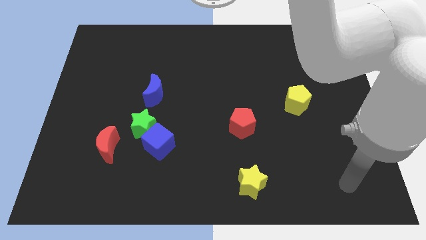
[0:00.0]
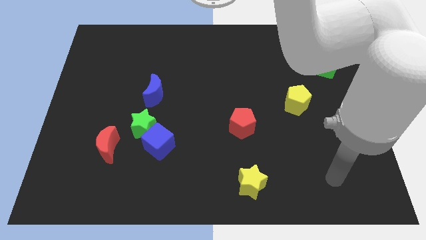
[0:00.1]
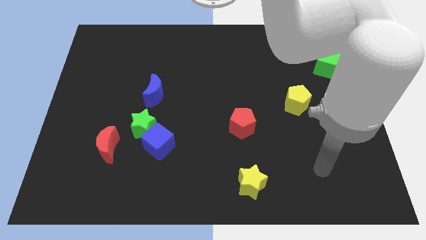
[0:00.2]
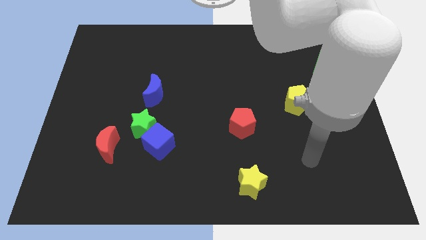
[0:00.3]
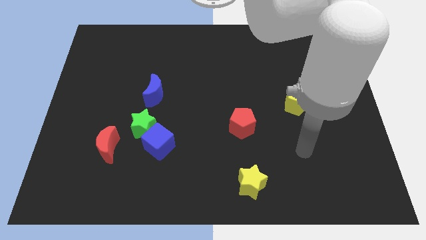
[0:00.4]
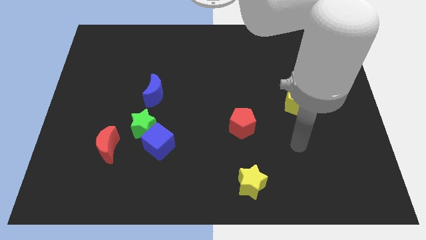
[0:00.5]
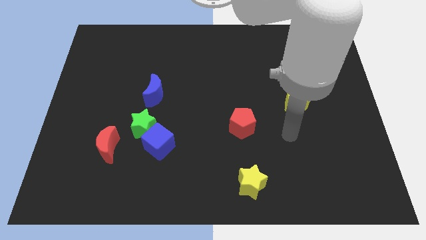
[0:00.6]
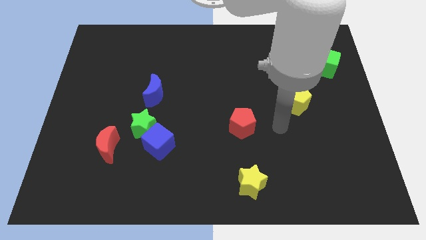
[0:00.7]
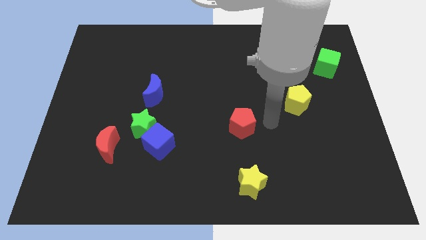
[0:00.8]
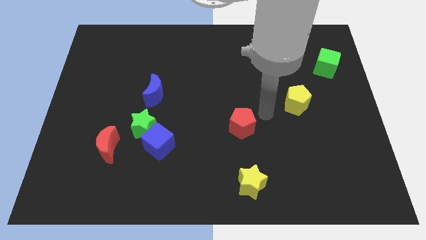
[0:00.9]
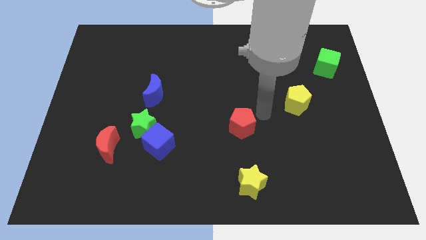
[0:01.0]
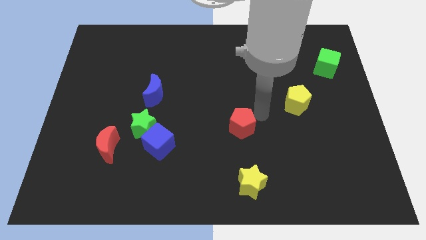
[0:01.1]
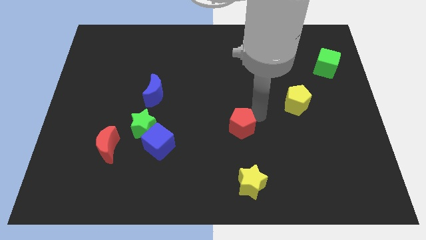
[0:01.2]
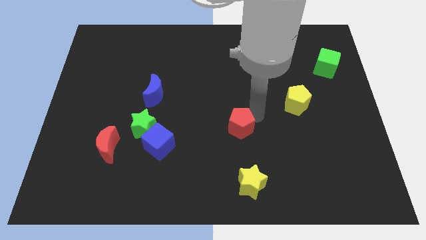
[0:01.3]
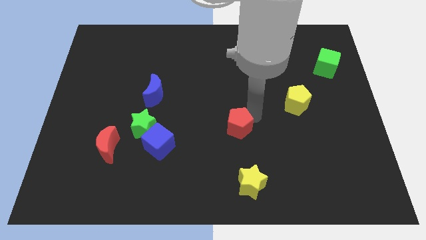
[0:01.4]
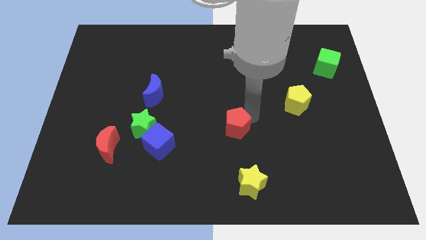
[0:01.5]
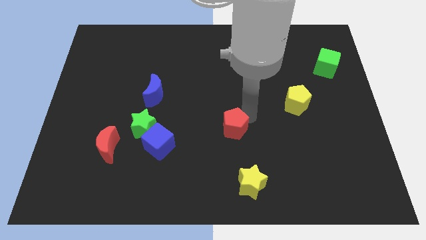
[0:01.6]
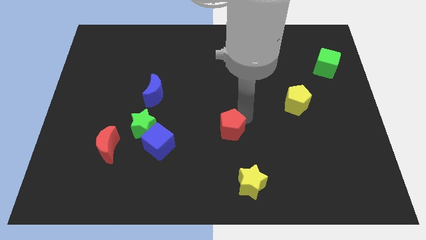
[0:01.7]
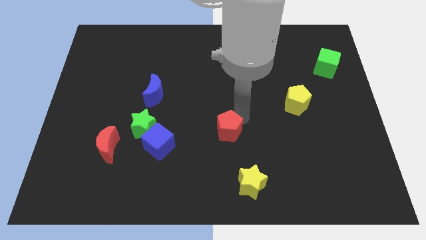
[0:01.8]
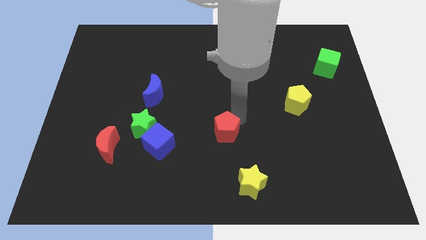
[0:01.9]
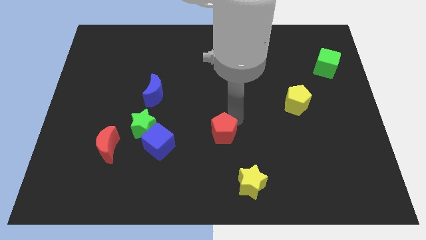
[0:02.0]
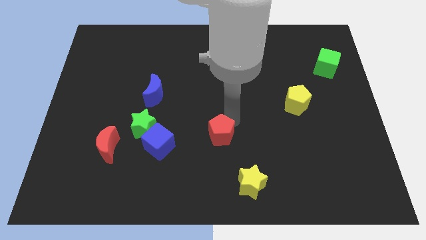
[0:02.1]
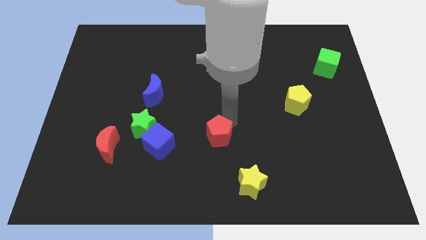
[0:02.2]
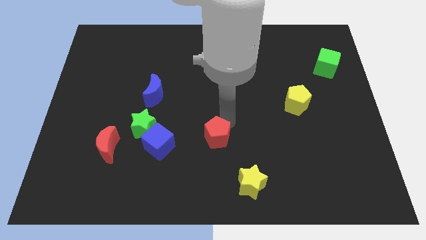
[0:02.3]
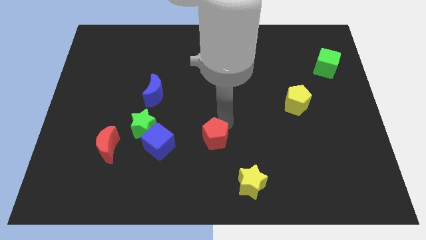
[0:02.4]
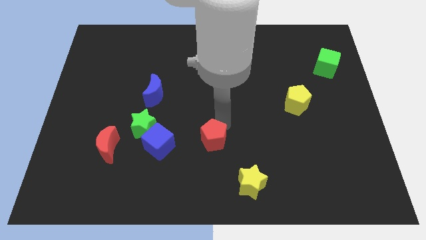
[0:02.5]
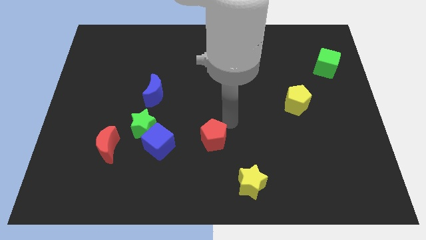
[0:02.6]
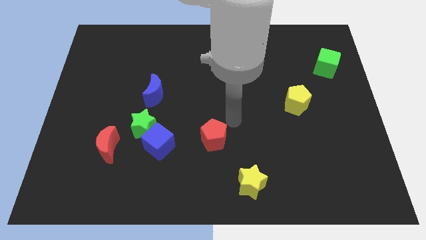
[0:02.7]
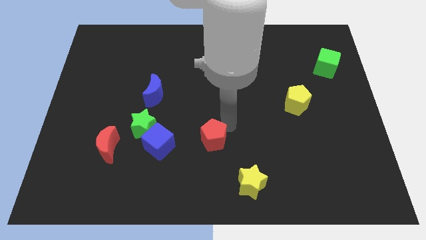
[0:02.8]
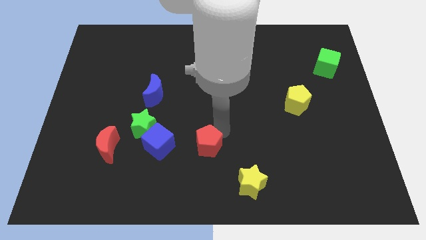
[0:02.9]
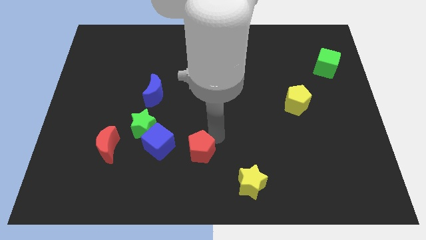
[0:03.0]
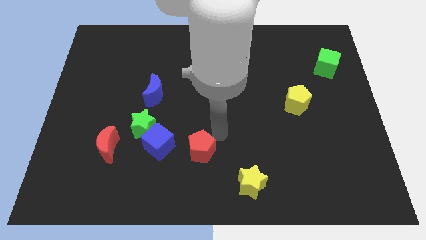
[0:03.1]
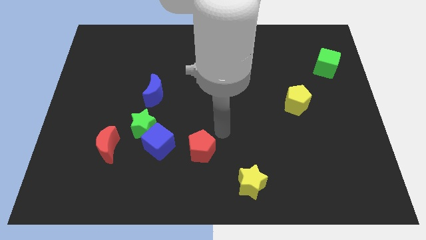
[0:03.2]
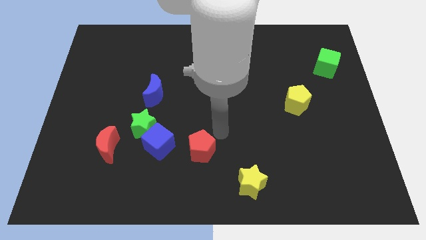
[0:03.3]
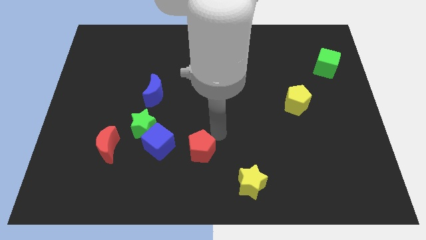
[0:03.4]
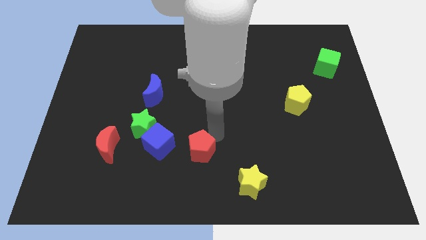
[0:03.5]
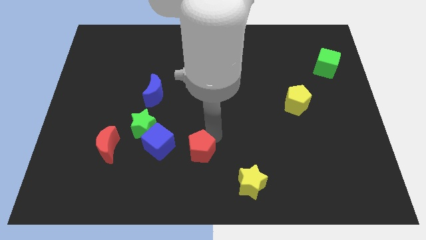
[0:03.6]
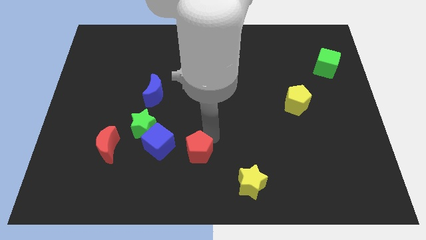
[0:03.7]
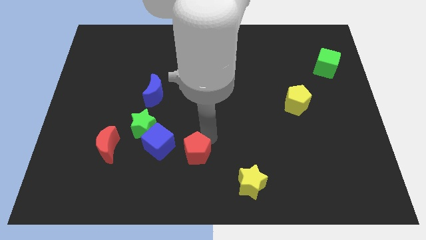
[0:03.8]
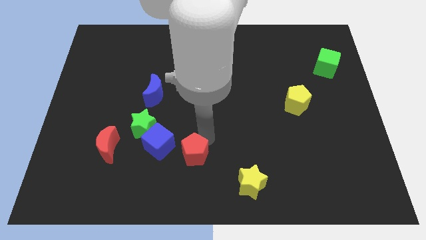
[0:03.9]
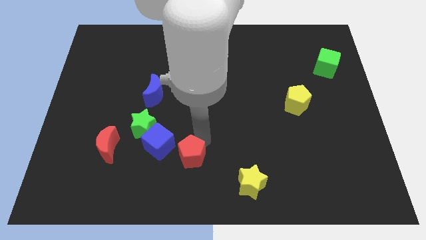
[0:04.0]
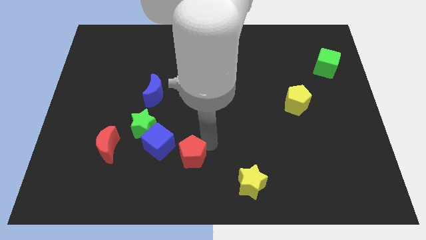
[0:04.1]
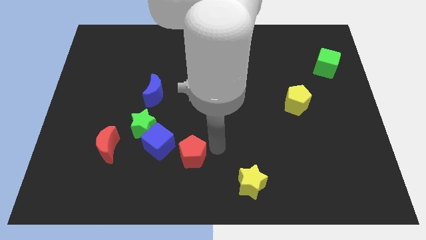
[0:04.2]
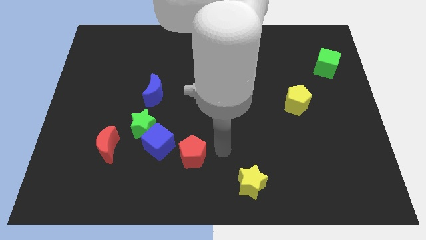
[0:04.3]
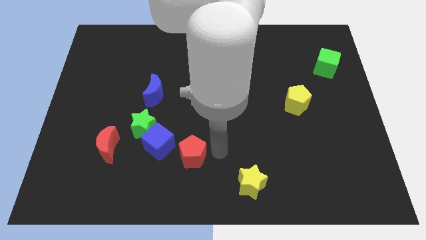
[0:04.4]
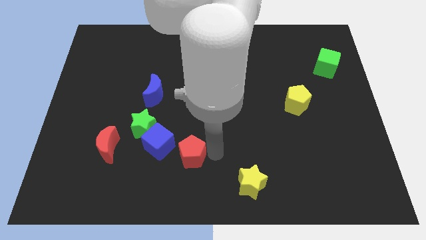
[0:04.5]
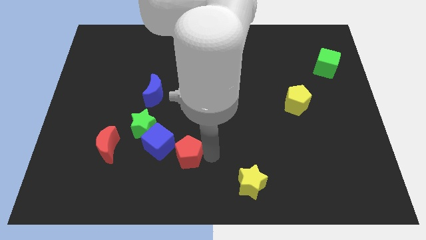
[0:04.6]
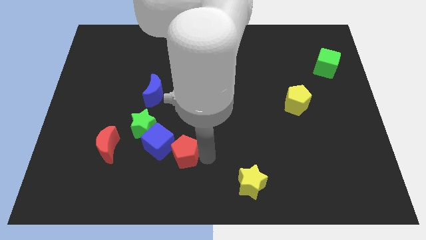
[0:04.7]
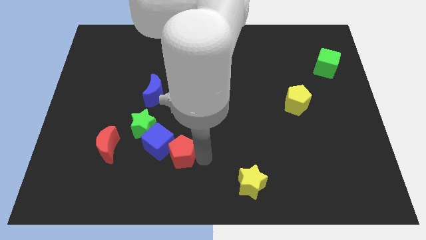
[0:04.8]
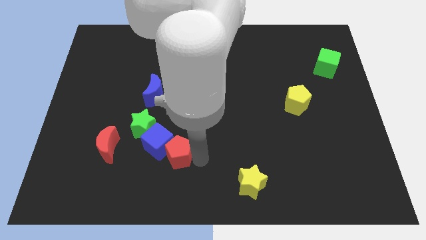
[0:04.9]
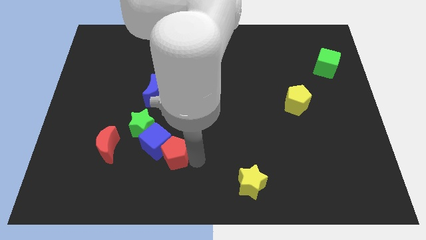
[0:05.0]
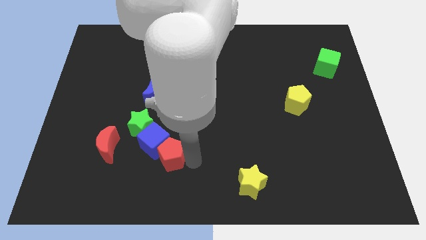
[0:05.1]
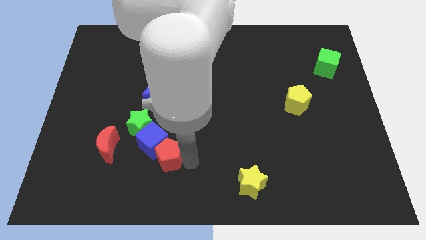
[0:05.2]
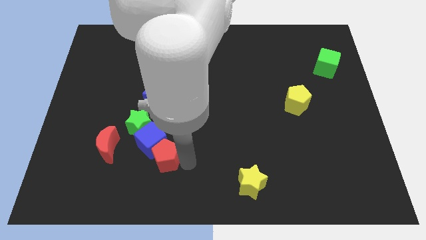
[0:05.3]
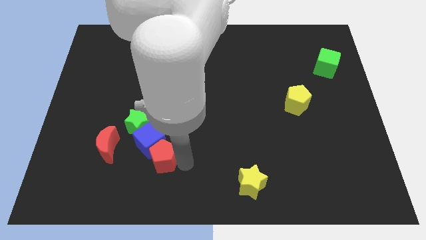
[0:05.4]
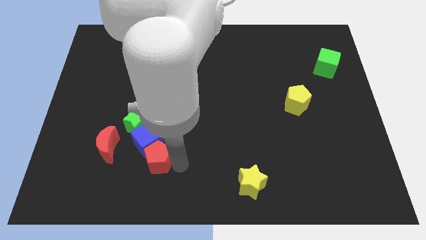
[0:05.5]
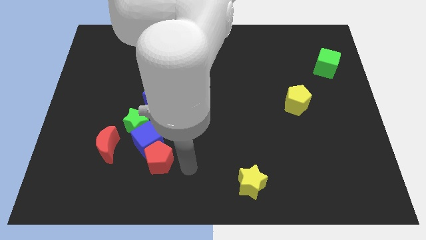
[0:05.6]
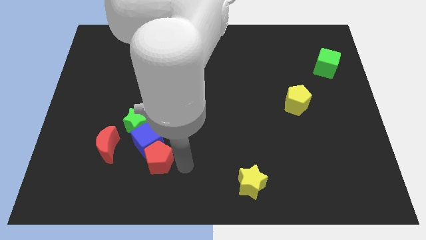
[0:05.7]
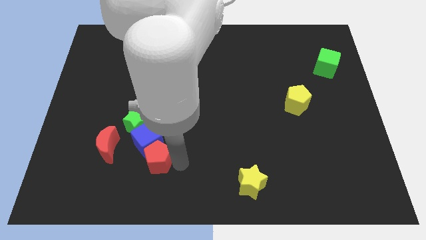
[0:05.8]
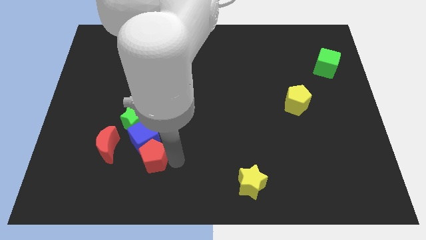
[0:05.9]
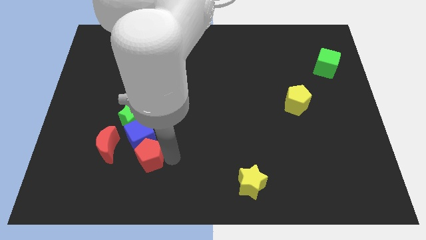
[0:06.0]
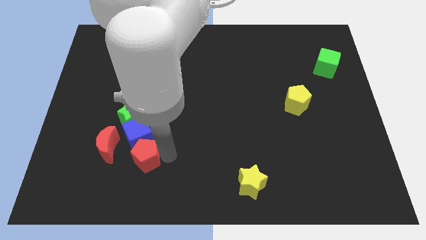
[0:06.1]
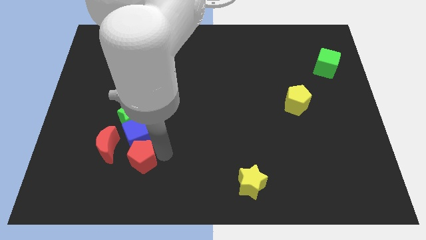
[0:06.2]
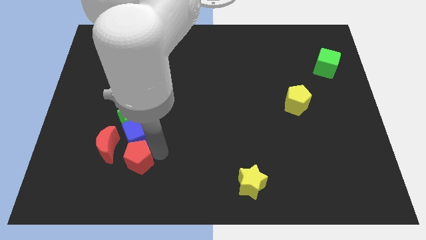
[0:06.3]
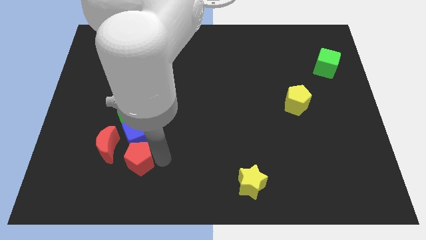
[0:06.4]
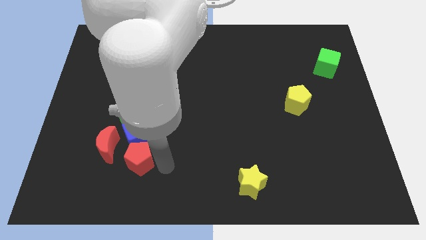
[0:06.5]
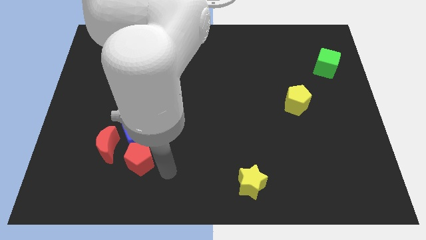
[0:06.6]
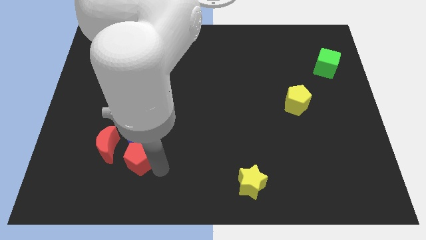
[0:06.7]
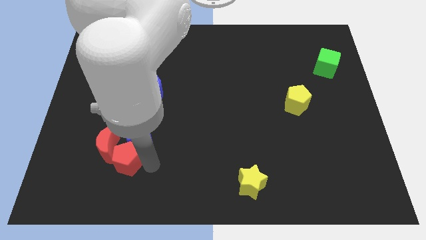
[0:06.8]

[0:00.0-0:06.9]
put the red pentagon next to the red moon

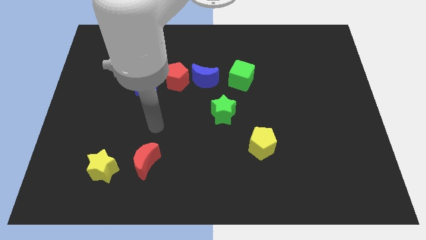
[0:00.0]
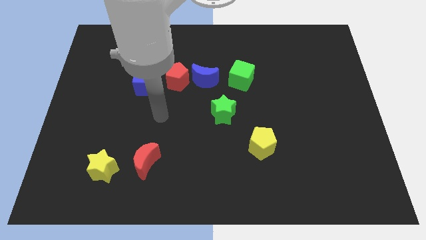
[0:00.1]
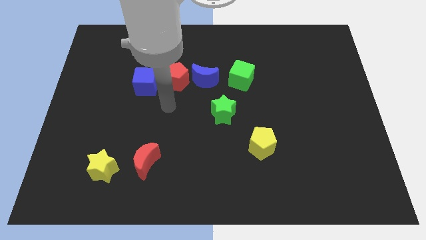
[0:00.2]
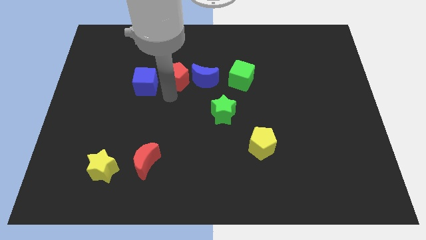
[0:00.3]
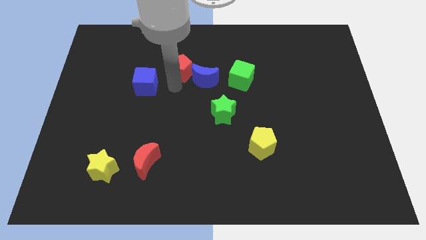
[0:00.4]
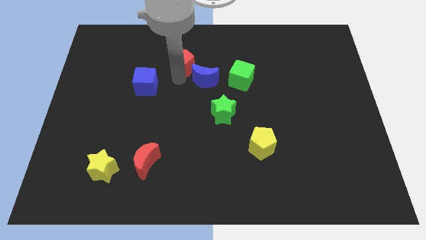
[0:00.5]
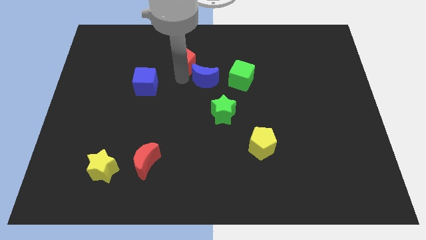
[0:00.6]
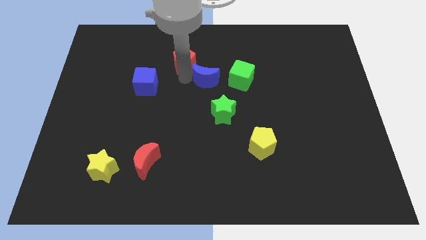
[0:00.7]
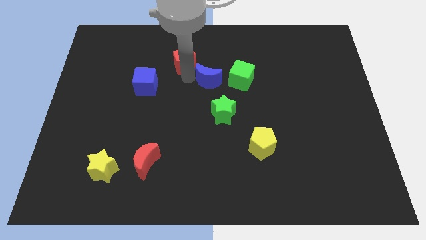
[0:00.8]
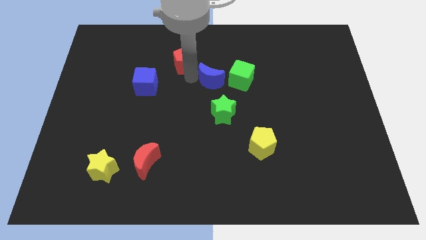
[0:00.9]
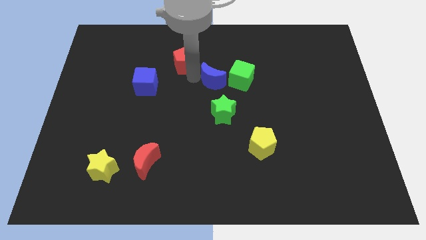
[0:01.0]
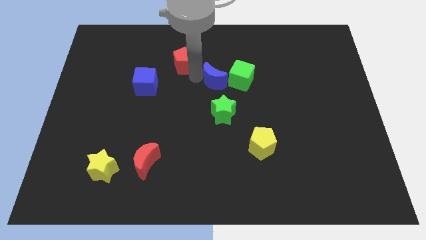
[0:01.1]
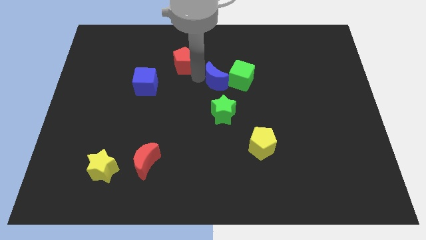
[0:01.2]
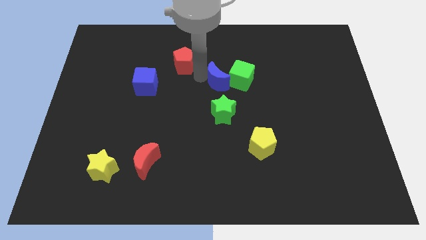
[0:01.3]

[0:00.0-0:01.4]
push the blue moon next to the green cube
